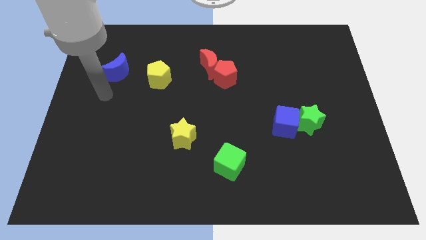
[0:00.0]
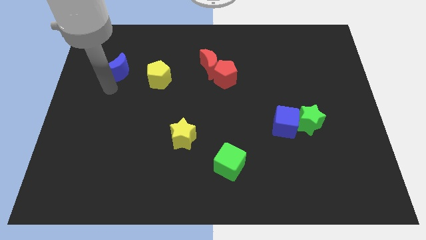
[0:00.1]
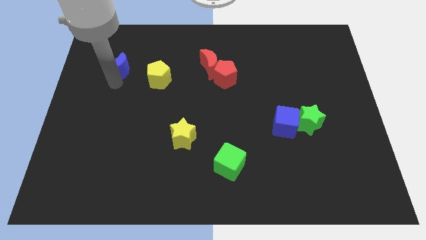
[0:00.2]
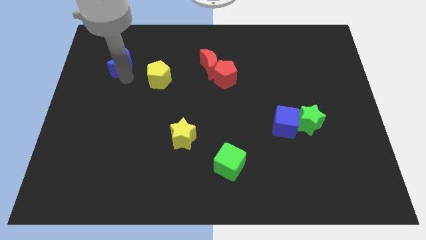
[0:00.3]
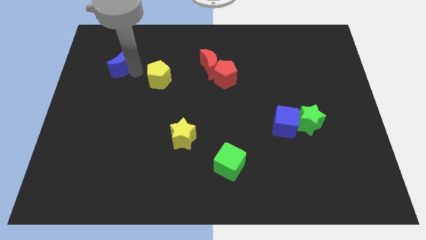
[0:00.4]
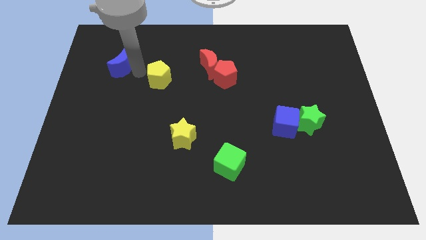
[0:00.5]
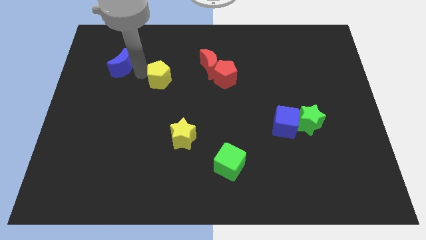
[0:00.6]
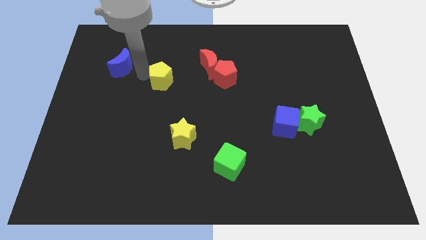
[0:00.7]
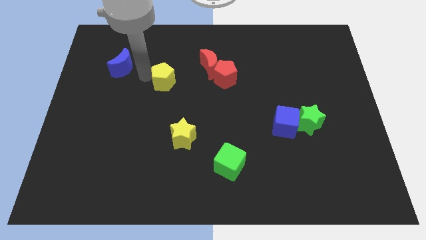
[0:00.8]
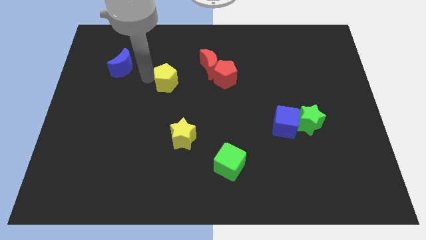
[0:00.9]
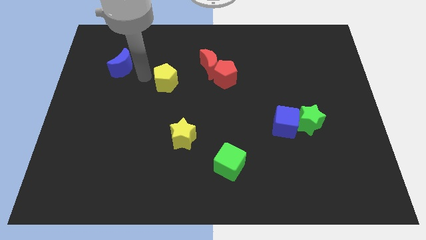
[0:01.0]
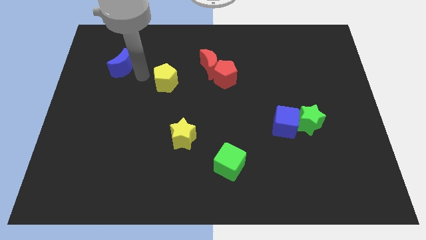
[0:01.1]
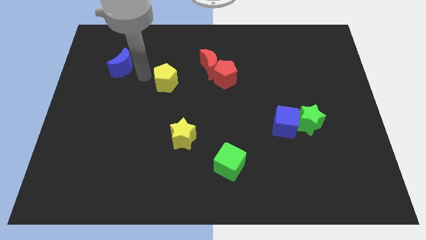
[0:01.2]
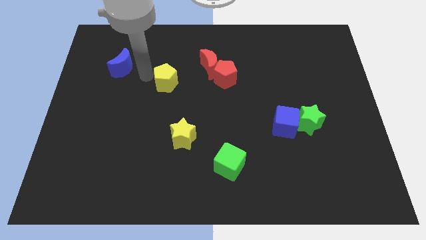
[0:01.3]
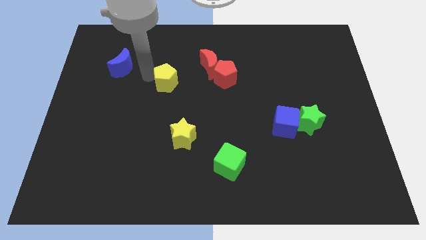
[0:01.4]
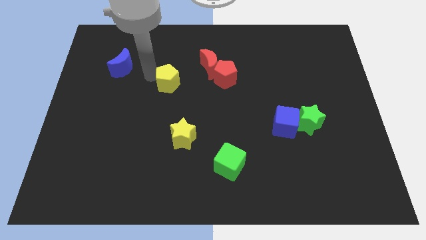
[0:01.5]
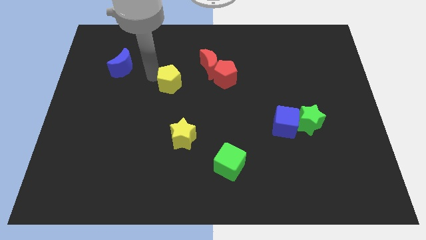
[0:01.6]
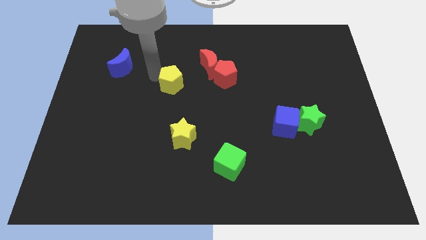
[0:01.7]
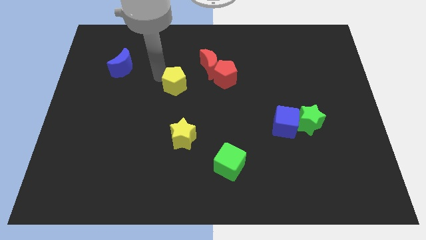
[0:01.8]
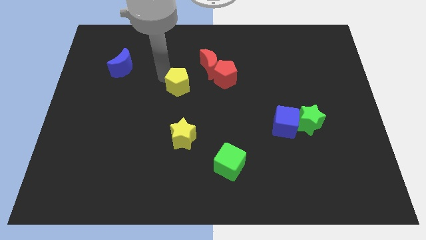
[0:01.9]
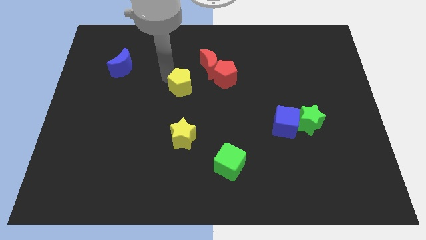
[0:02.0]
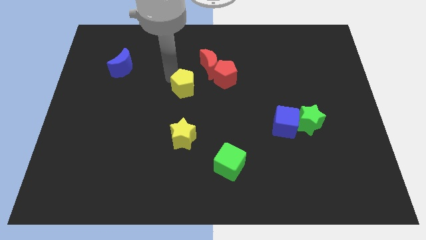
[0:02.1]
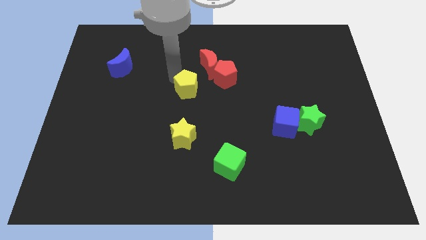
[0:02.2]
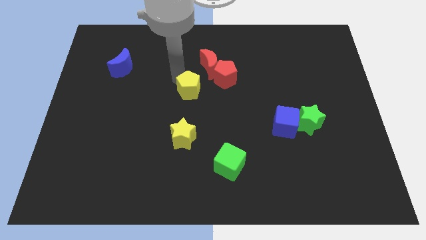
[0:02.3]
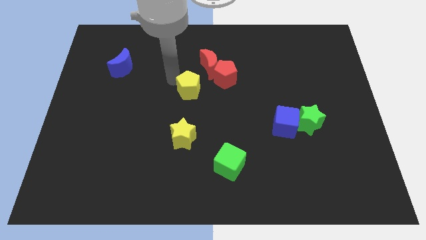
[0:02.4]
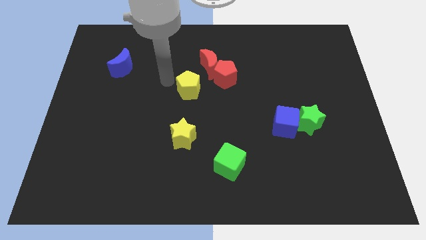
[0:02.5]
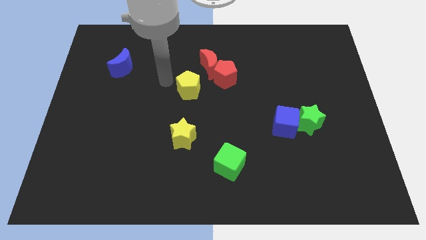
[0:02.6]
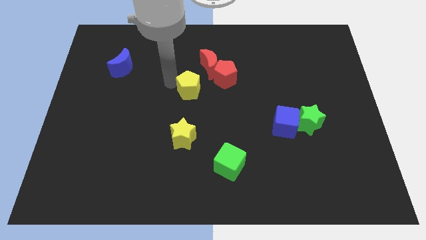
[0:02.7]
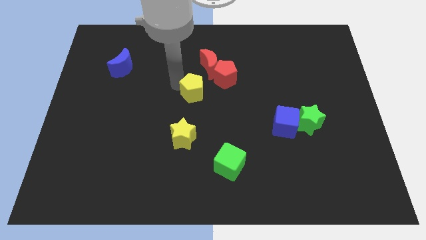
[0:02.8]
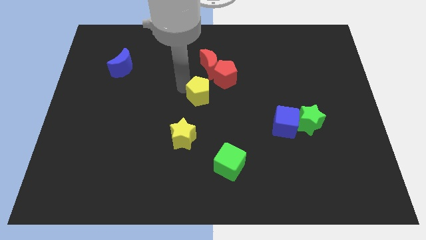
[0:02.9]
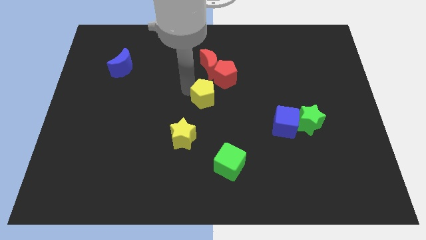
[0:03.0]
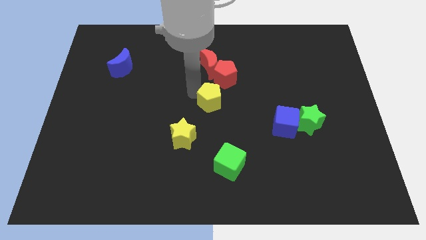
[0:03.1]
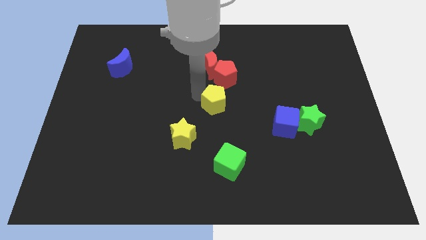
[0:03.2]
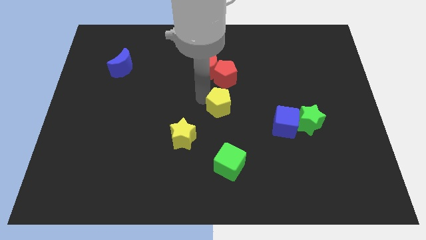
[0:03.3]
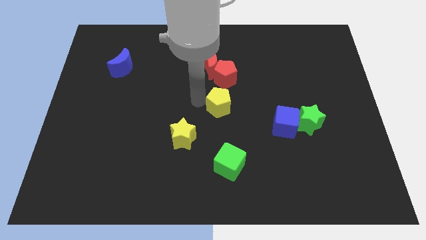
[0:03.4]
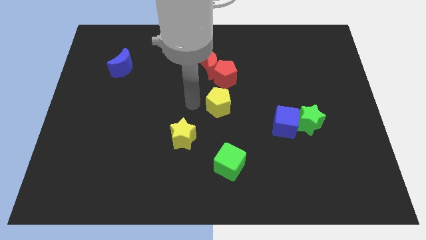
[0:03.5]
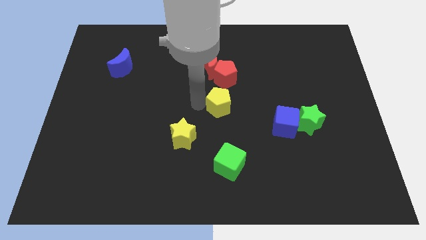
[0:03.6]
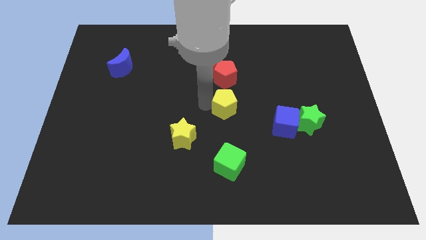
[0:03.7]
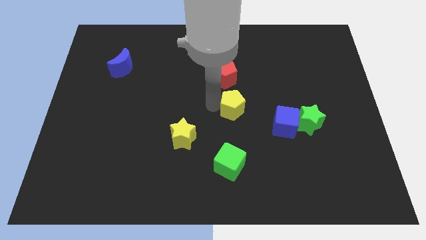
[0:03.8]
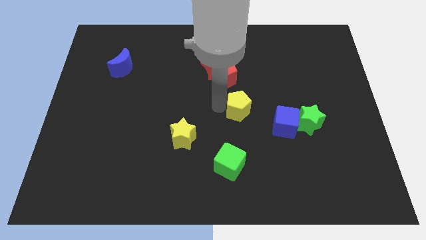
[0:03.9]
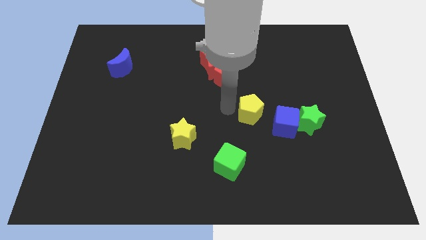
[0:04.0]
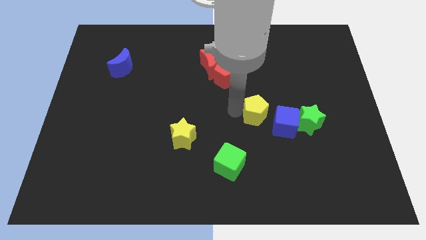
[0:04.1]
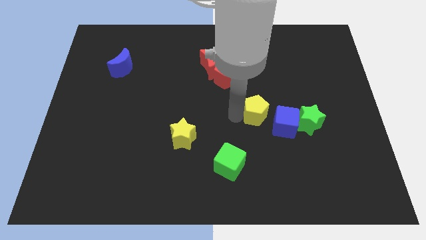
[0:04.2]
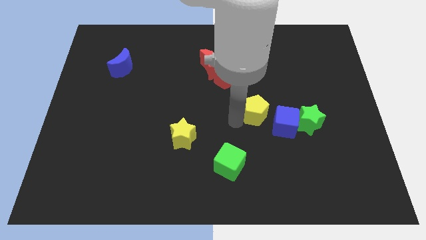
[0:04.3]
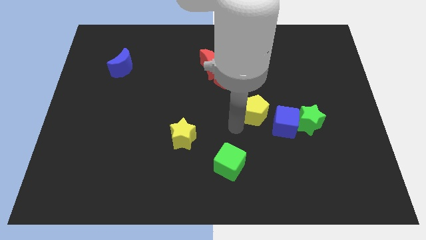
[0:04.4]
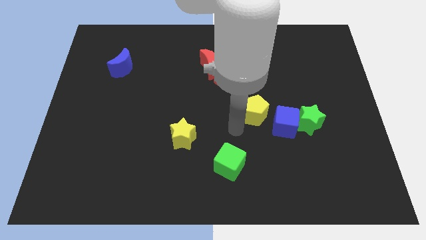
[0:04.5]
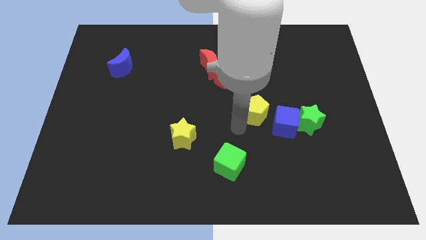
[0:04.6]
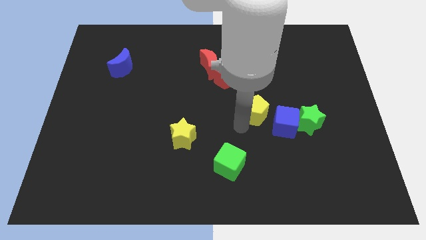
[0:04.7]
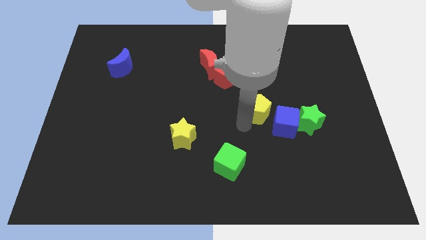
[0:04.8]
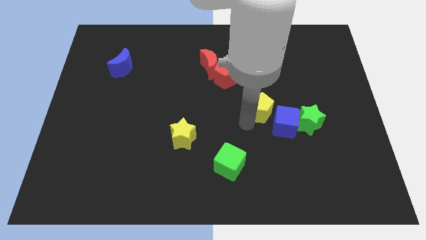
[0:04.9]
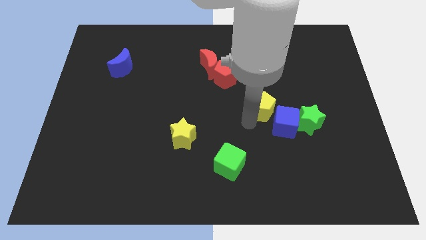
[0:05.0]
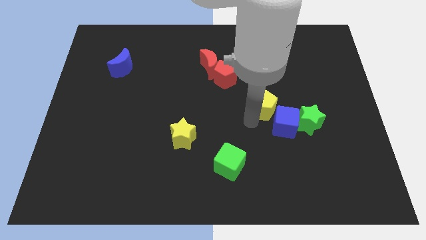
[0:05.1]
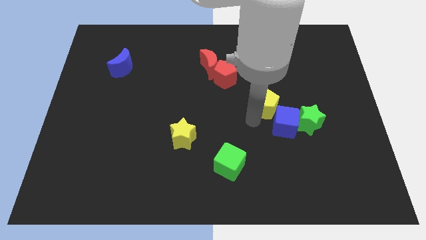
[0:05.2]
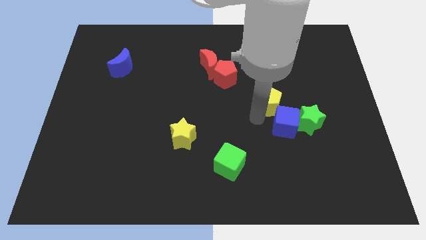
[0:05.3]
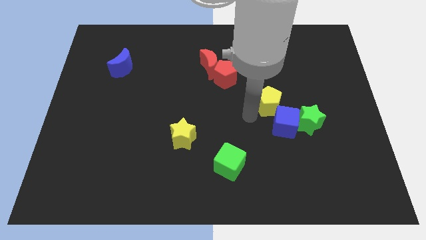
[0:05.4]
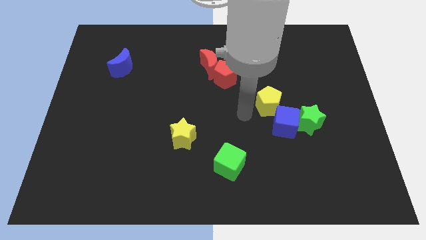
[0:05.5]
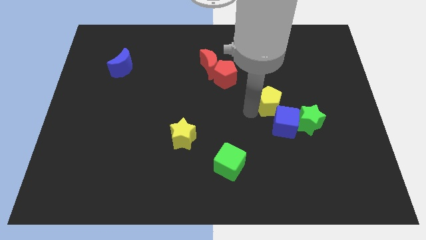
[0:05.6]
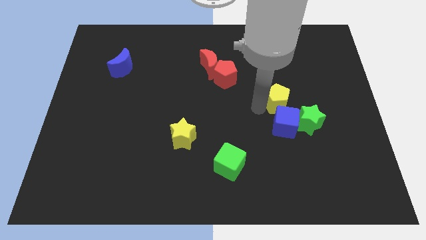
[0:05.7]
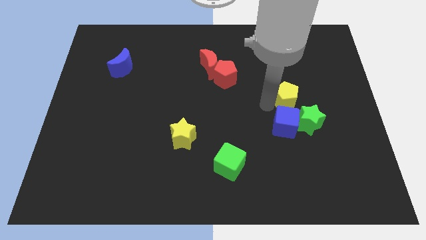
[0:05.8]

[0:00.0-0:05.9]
put the yellow pentagon above the green star

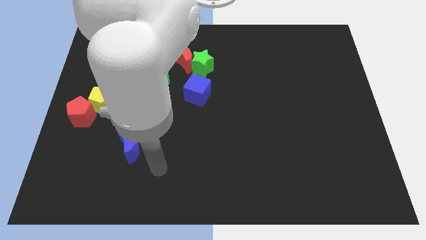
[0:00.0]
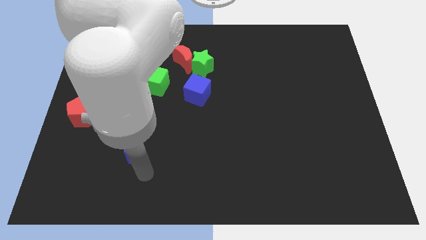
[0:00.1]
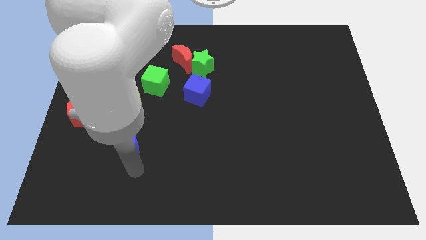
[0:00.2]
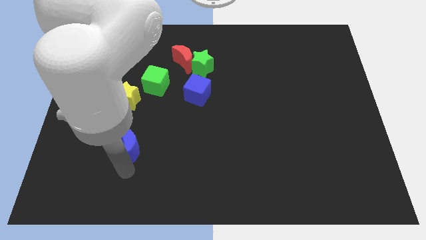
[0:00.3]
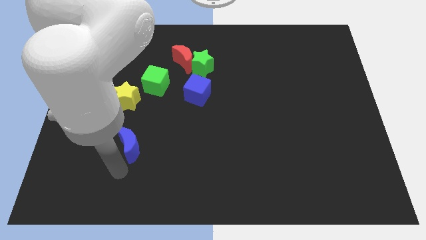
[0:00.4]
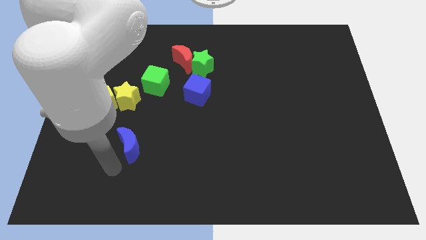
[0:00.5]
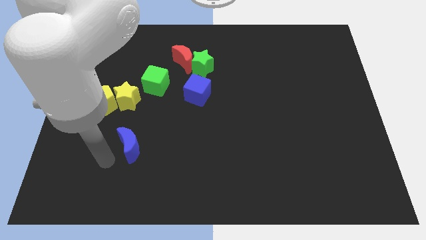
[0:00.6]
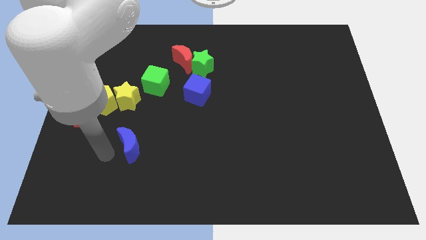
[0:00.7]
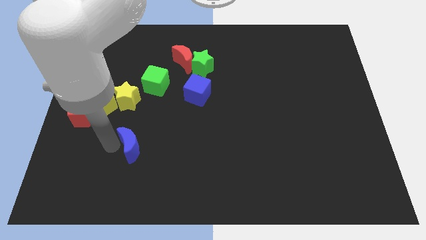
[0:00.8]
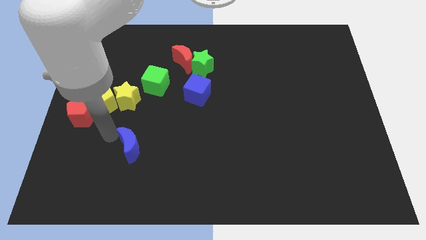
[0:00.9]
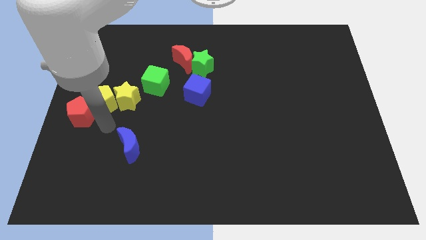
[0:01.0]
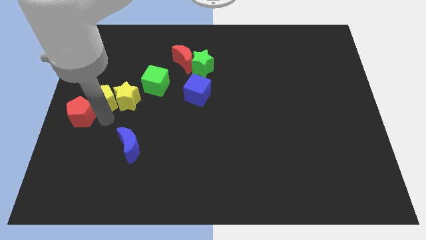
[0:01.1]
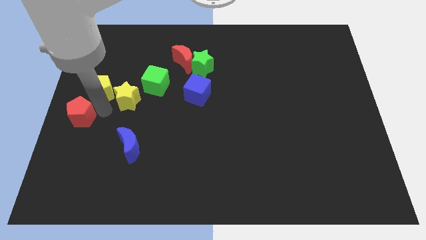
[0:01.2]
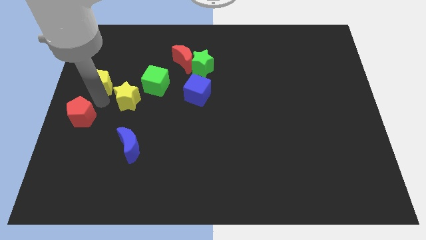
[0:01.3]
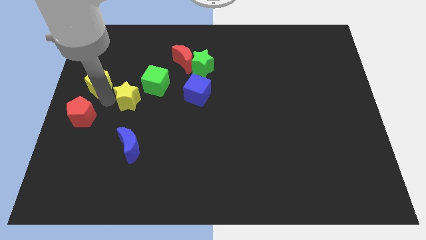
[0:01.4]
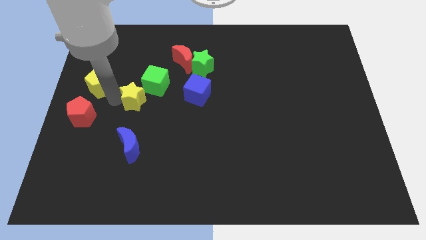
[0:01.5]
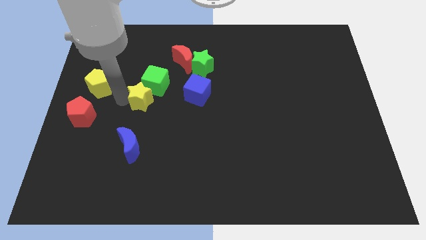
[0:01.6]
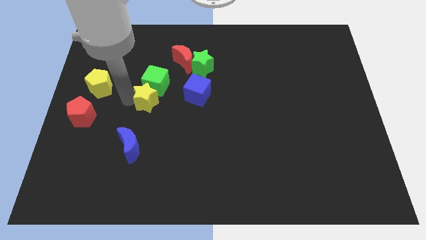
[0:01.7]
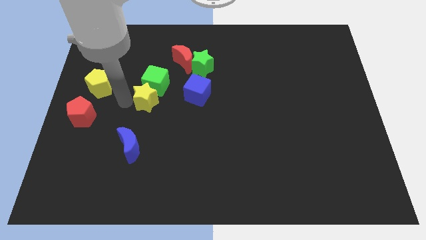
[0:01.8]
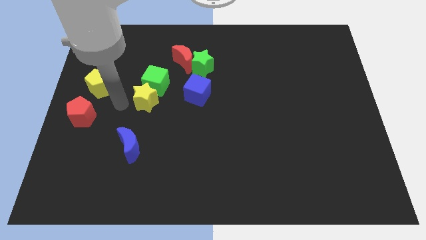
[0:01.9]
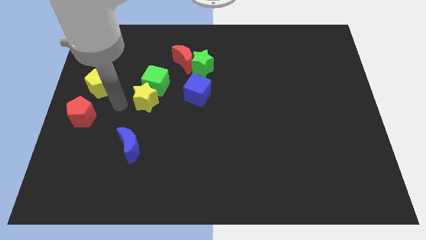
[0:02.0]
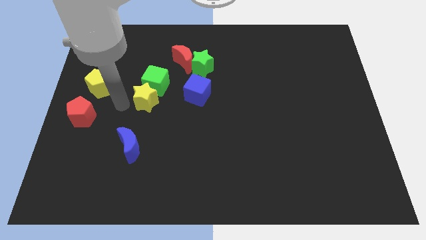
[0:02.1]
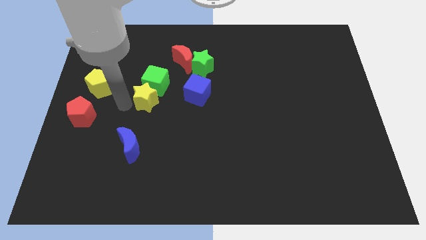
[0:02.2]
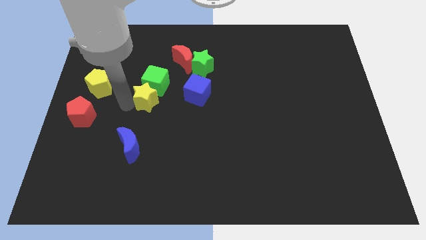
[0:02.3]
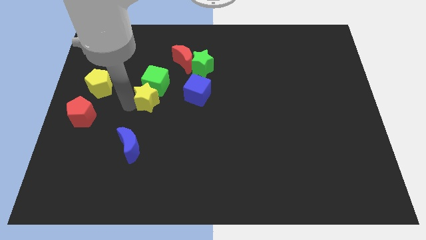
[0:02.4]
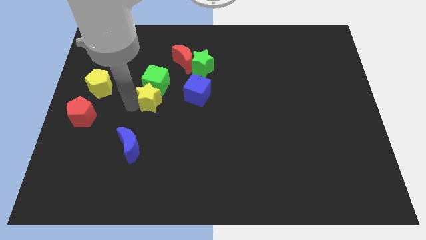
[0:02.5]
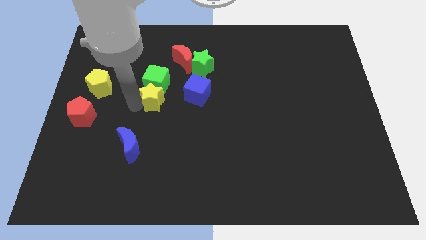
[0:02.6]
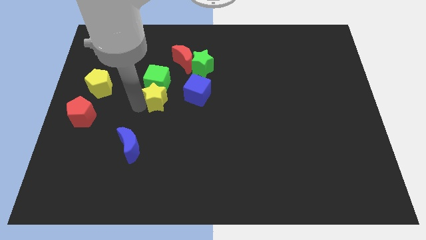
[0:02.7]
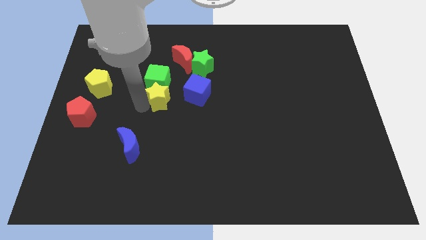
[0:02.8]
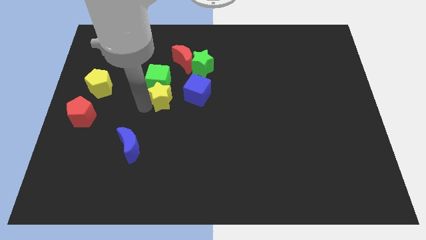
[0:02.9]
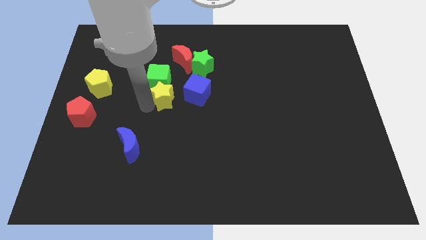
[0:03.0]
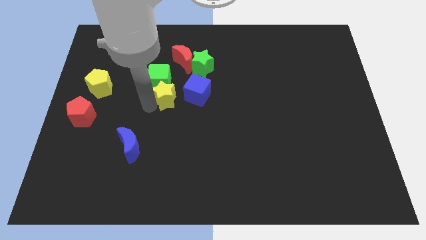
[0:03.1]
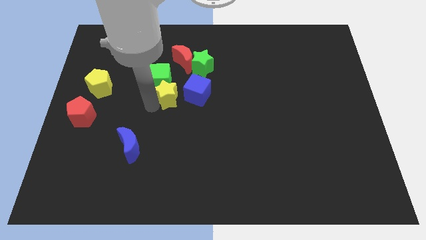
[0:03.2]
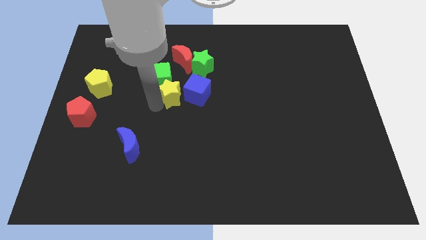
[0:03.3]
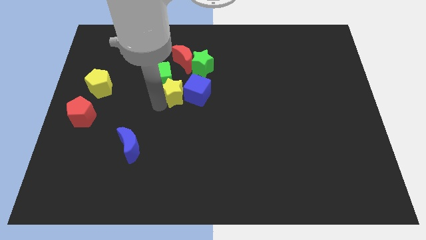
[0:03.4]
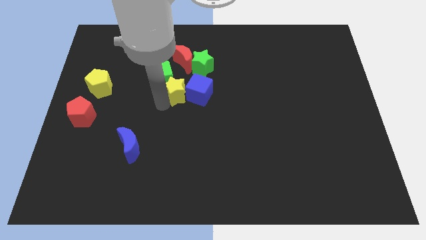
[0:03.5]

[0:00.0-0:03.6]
slide the yellow star to the right of the green cube
